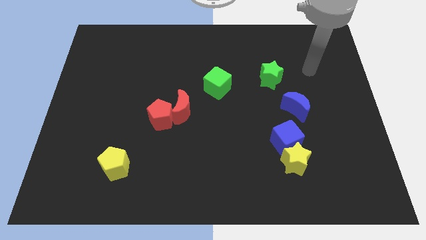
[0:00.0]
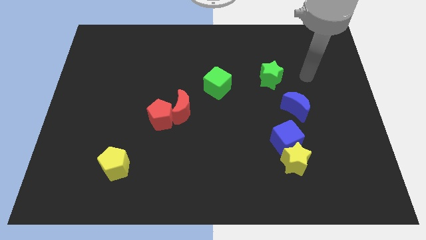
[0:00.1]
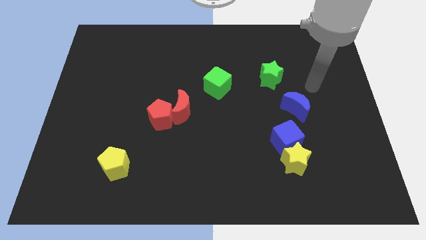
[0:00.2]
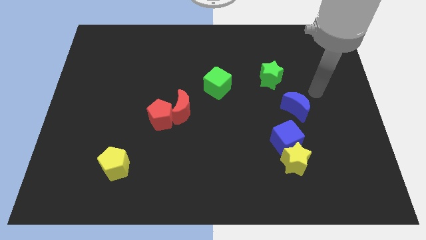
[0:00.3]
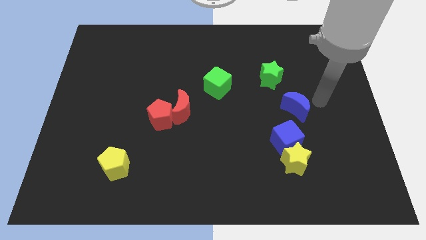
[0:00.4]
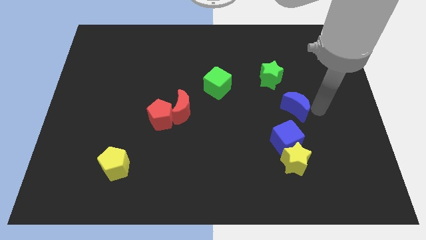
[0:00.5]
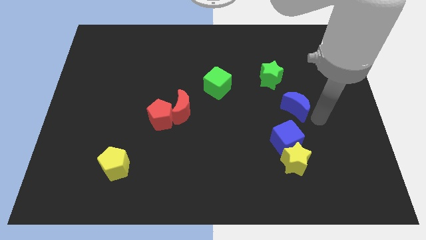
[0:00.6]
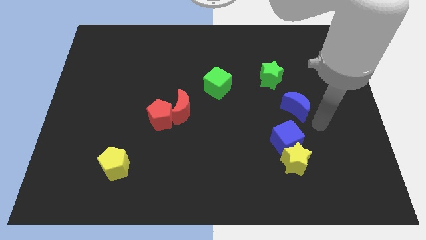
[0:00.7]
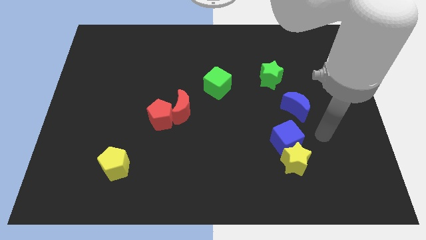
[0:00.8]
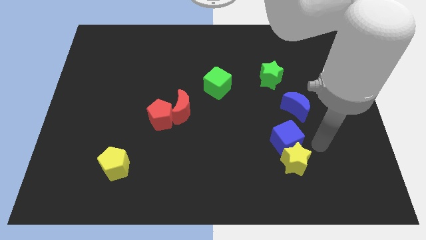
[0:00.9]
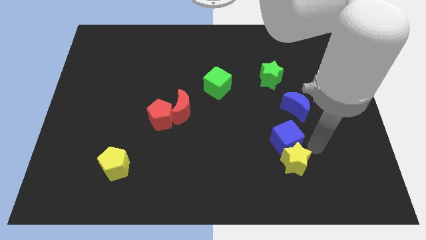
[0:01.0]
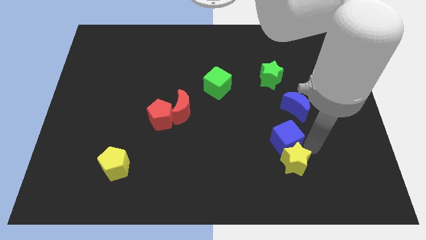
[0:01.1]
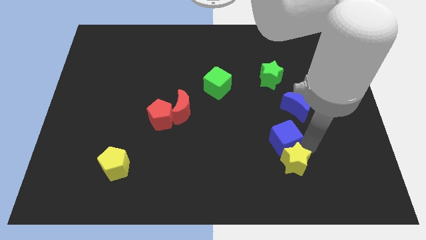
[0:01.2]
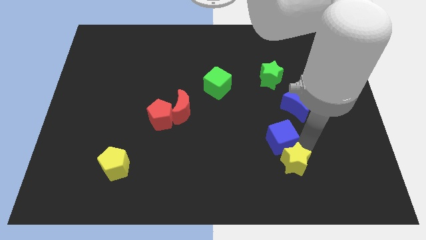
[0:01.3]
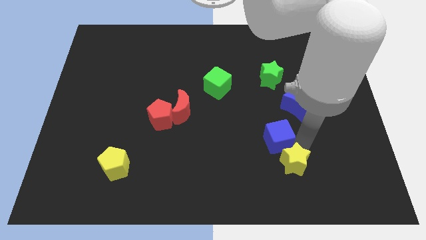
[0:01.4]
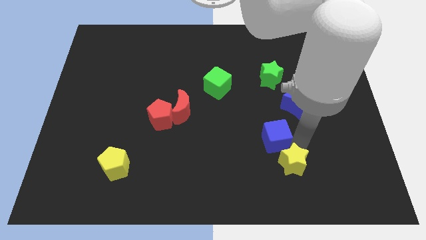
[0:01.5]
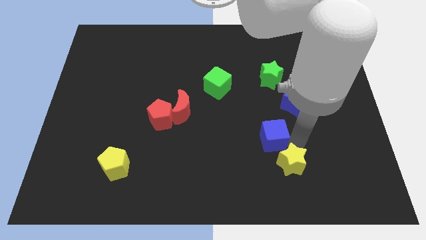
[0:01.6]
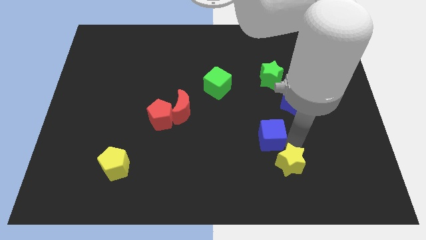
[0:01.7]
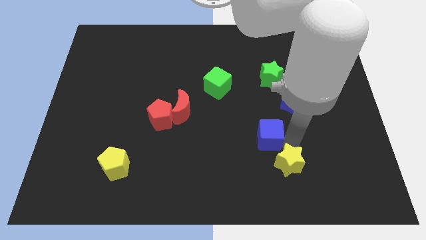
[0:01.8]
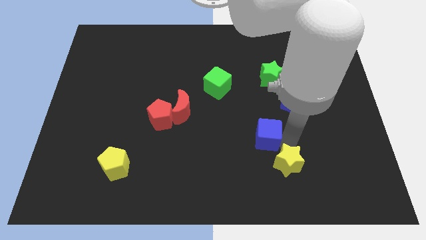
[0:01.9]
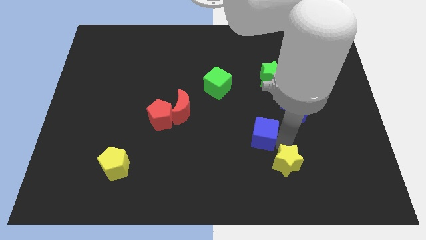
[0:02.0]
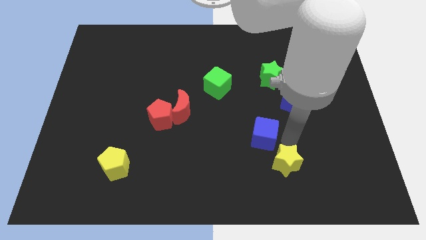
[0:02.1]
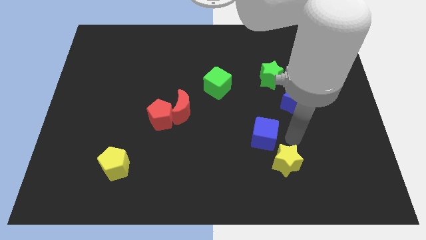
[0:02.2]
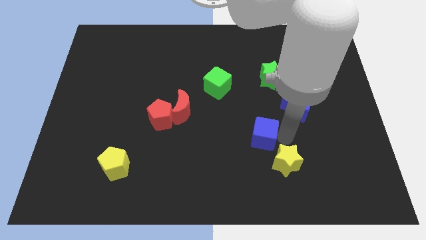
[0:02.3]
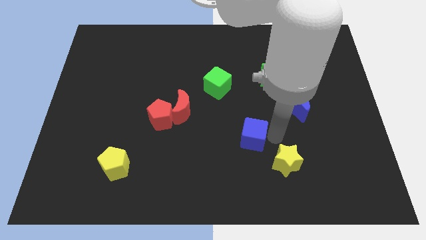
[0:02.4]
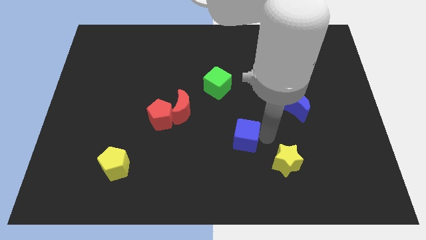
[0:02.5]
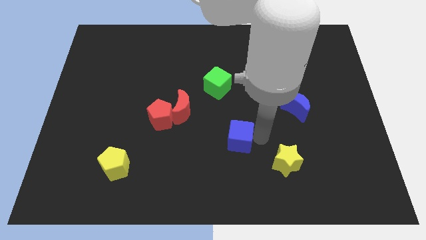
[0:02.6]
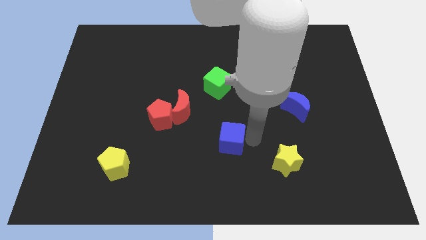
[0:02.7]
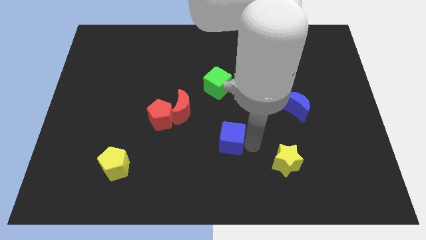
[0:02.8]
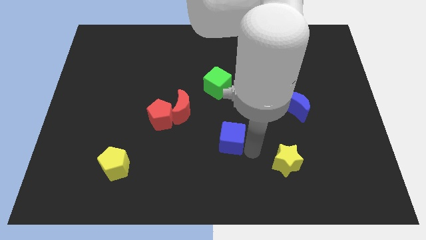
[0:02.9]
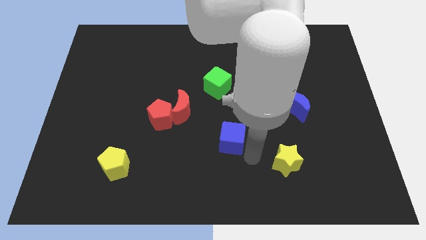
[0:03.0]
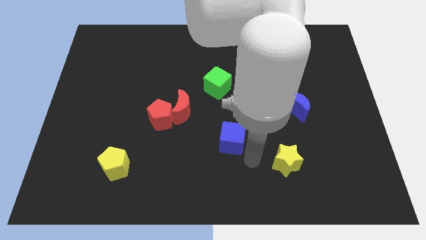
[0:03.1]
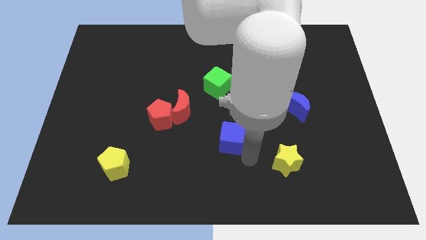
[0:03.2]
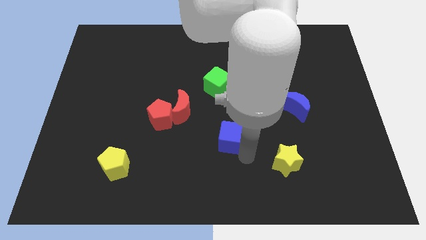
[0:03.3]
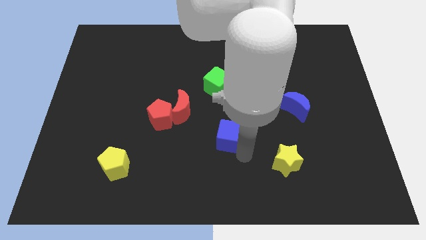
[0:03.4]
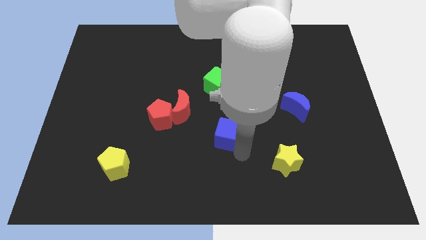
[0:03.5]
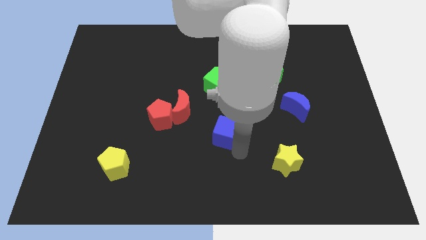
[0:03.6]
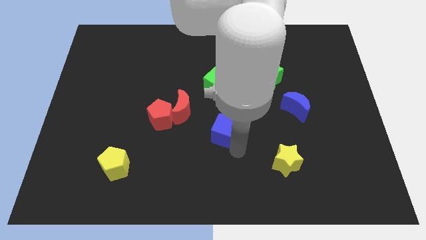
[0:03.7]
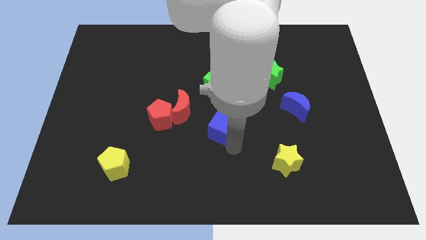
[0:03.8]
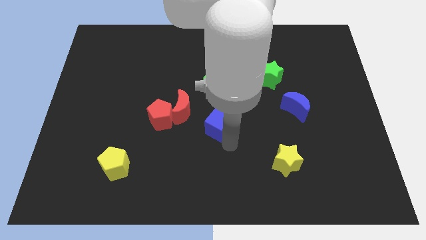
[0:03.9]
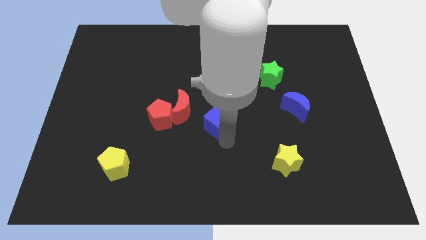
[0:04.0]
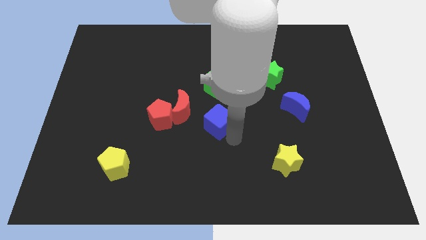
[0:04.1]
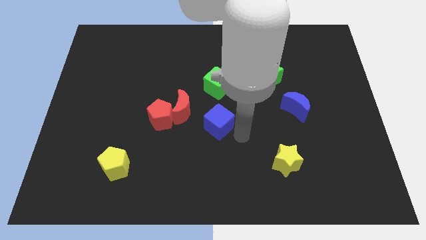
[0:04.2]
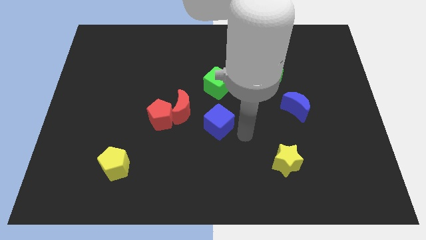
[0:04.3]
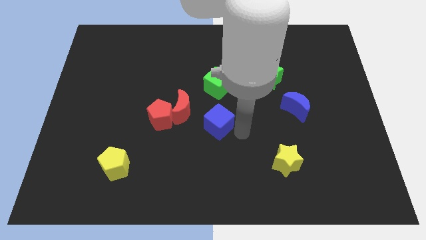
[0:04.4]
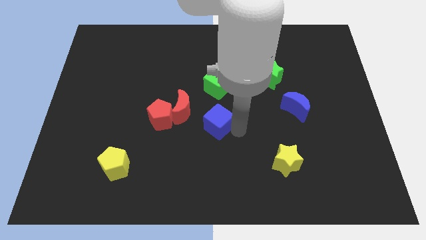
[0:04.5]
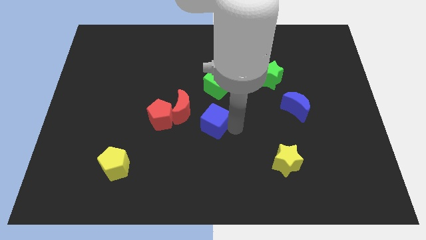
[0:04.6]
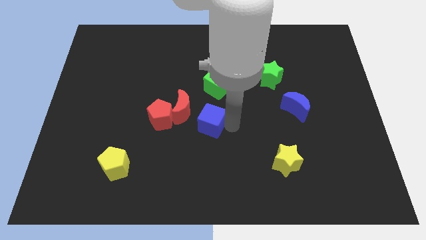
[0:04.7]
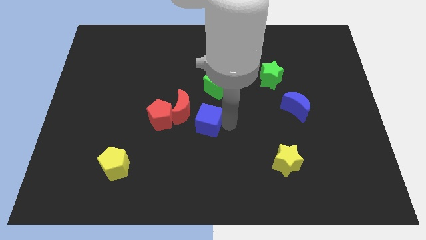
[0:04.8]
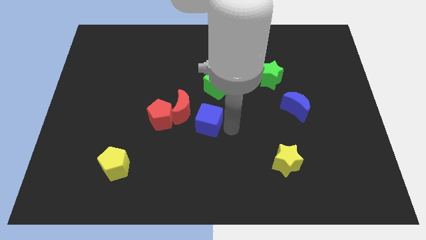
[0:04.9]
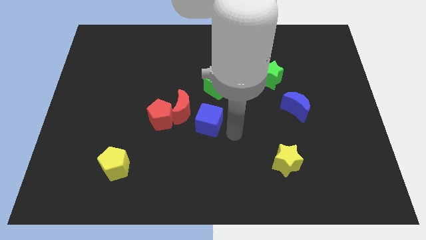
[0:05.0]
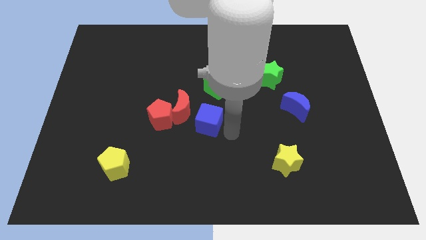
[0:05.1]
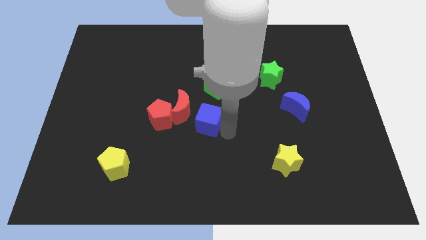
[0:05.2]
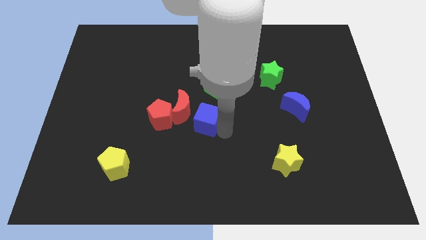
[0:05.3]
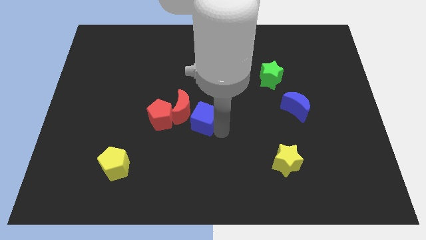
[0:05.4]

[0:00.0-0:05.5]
slide the blue cube towards the red moon

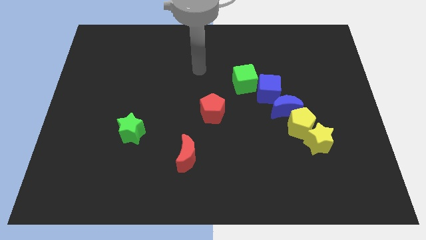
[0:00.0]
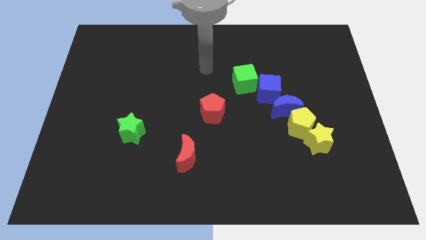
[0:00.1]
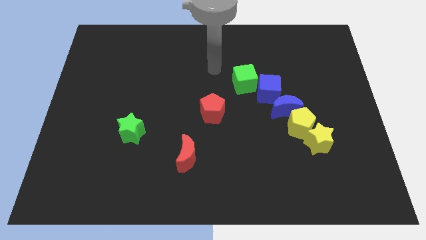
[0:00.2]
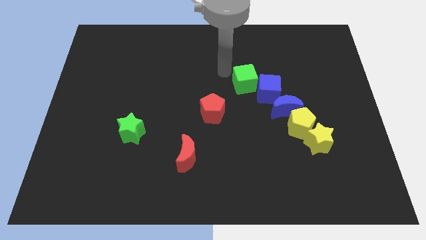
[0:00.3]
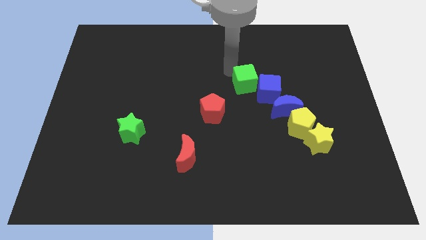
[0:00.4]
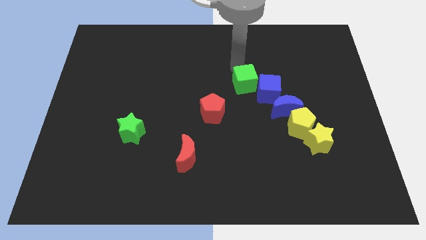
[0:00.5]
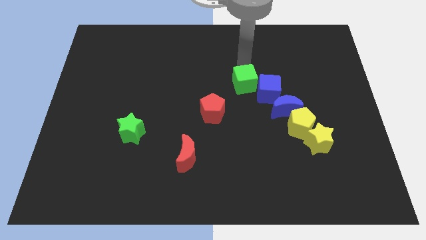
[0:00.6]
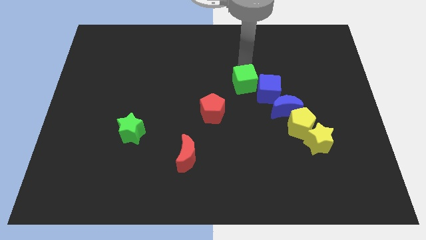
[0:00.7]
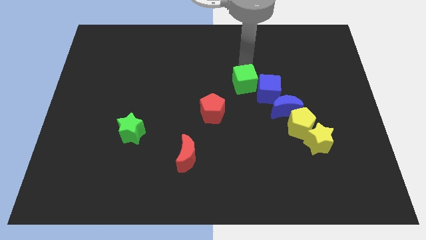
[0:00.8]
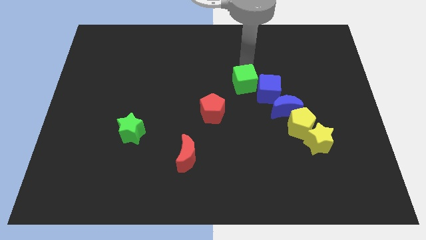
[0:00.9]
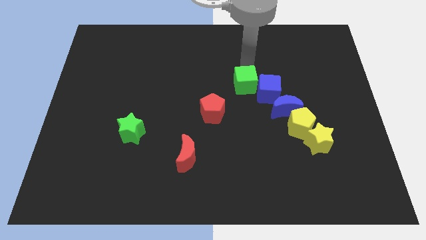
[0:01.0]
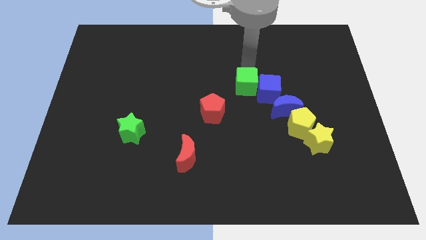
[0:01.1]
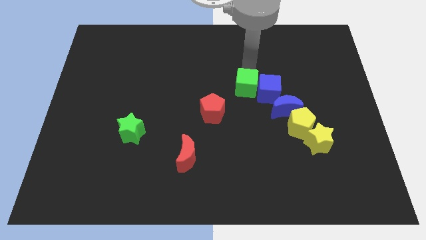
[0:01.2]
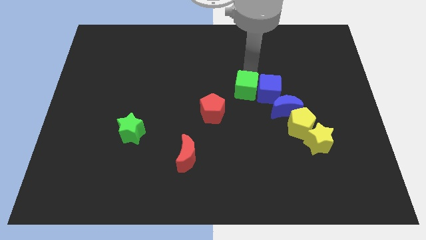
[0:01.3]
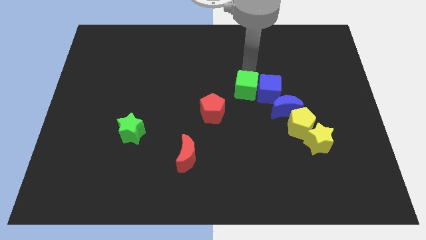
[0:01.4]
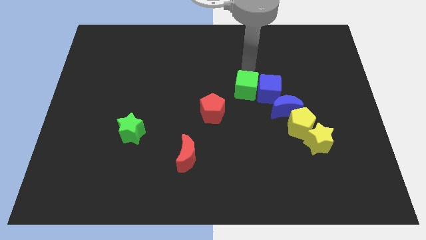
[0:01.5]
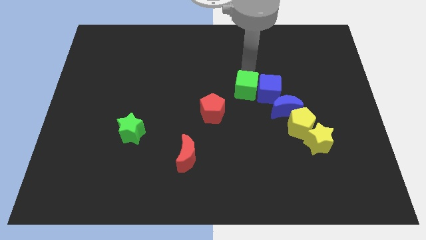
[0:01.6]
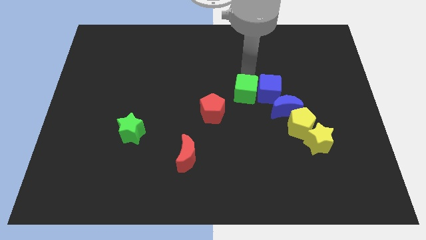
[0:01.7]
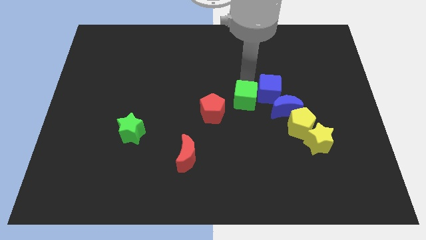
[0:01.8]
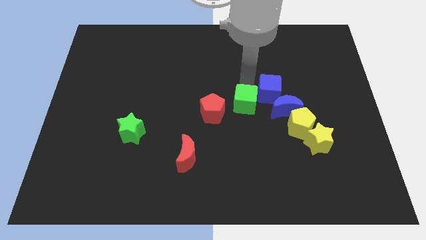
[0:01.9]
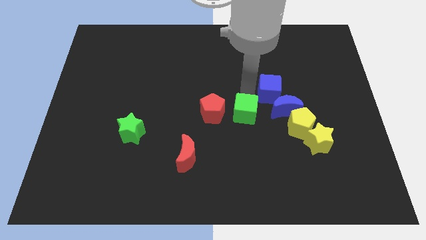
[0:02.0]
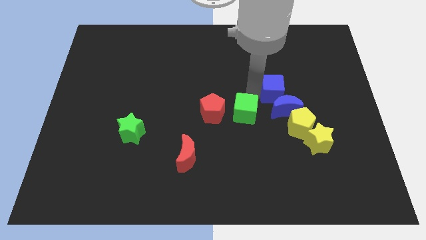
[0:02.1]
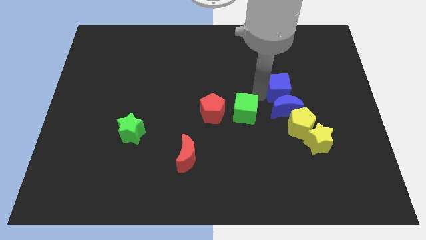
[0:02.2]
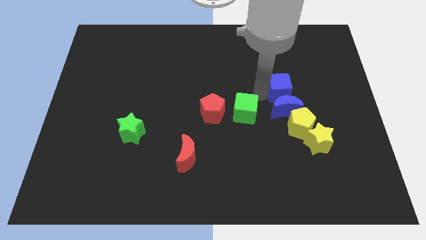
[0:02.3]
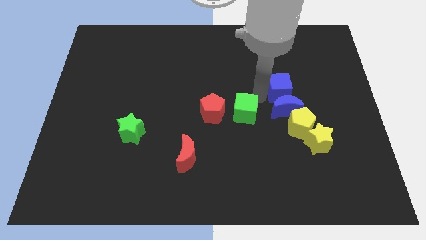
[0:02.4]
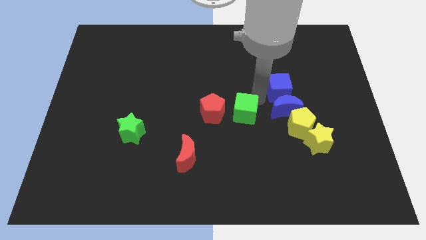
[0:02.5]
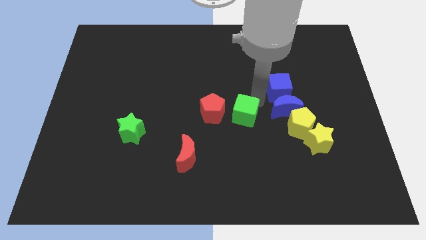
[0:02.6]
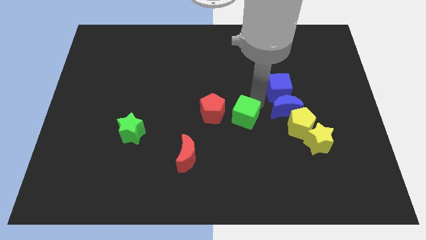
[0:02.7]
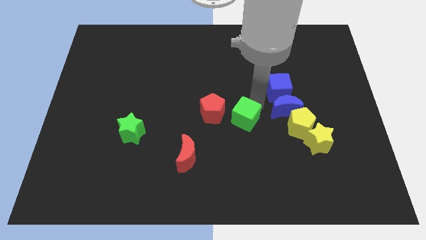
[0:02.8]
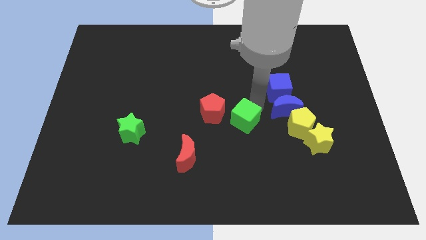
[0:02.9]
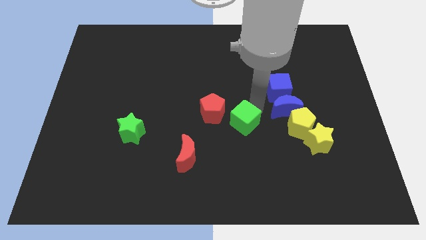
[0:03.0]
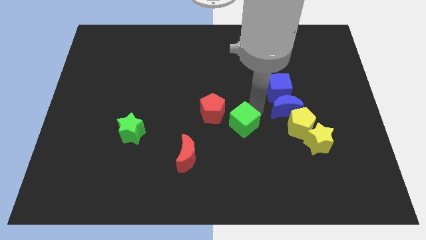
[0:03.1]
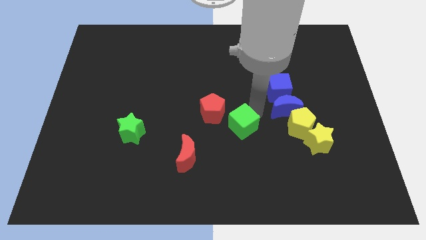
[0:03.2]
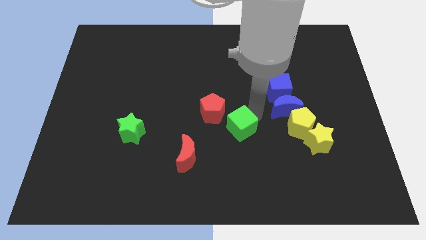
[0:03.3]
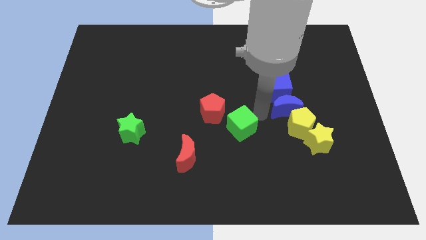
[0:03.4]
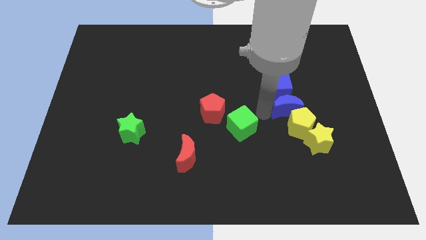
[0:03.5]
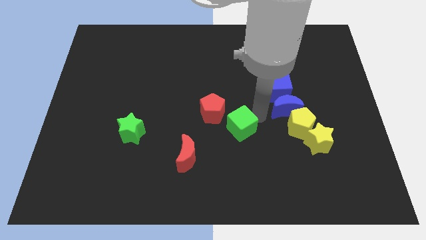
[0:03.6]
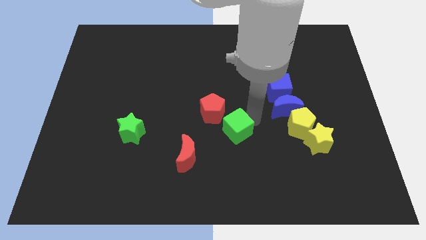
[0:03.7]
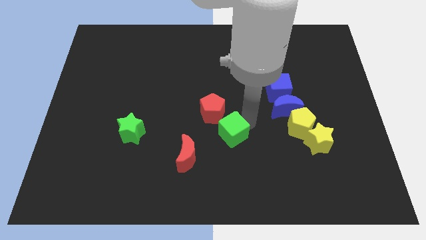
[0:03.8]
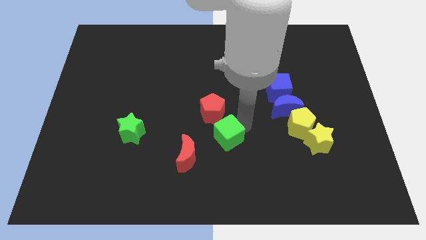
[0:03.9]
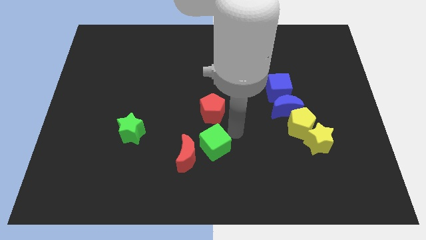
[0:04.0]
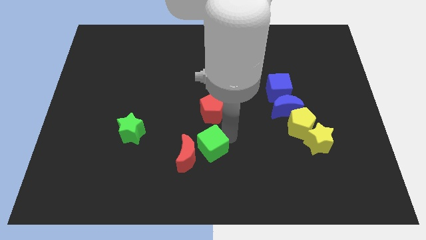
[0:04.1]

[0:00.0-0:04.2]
push the green cube next to the red moon
